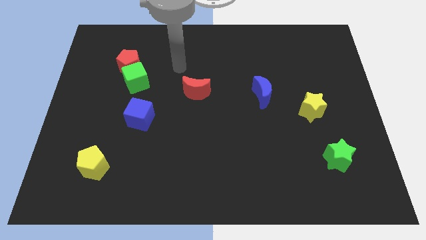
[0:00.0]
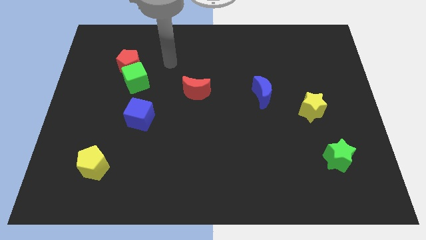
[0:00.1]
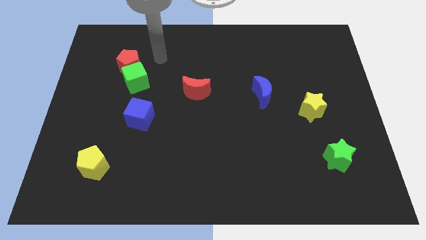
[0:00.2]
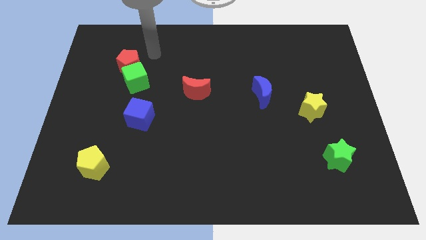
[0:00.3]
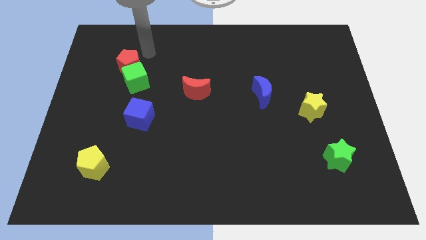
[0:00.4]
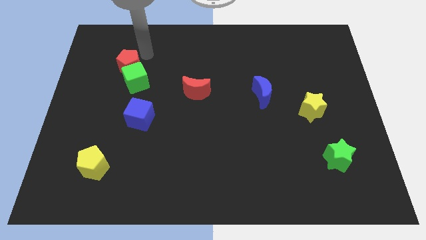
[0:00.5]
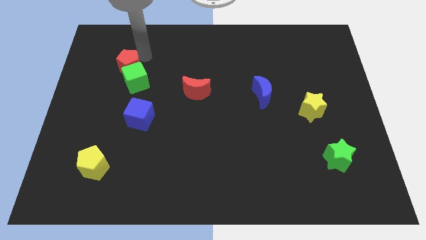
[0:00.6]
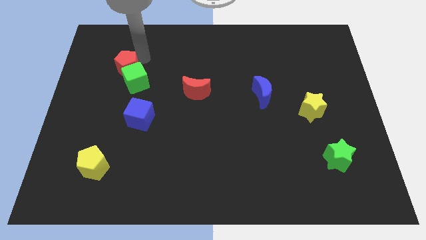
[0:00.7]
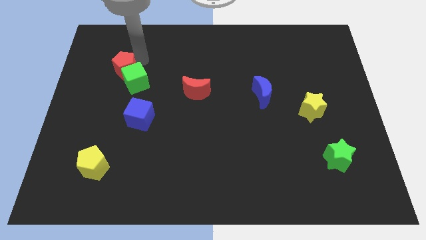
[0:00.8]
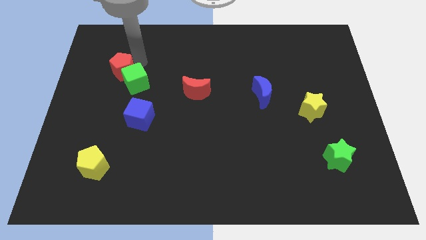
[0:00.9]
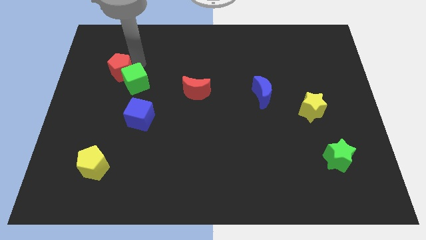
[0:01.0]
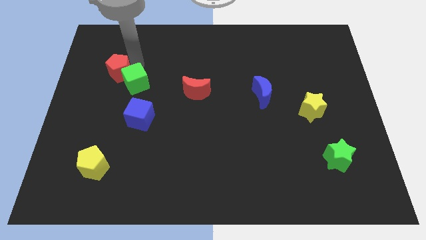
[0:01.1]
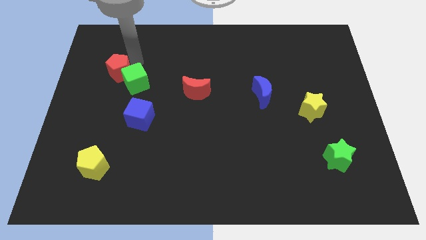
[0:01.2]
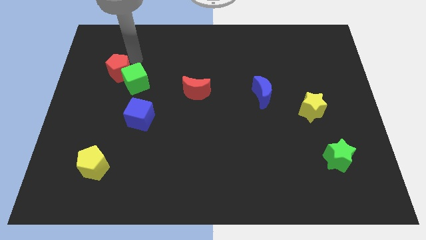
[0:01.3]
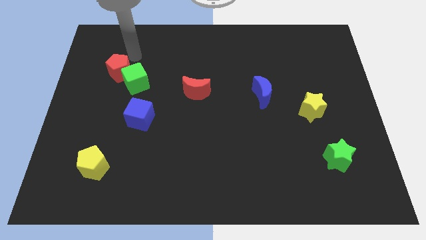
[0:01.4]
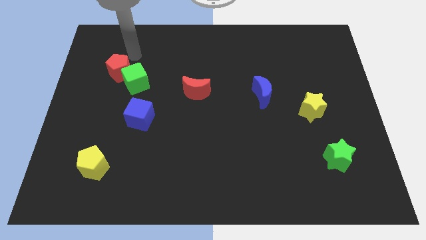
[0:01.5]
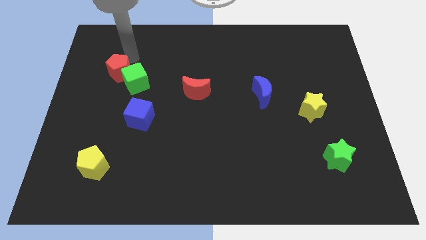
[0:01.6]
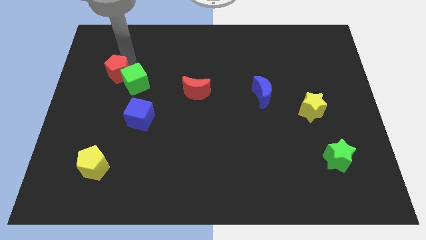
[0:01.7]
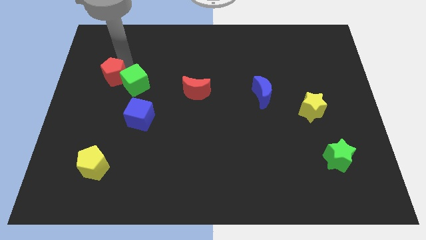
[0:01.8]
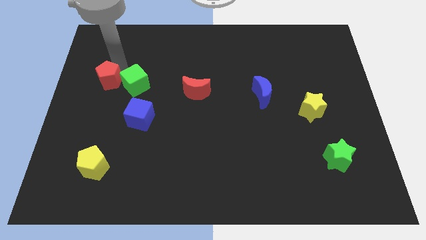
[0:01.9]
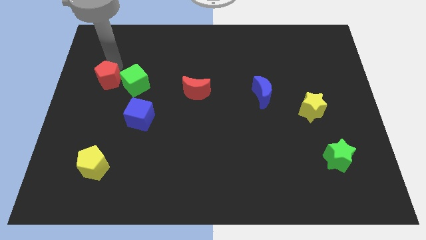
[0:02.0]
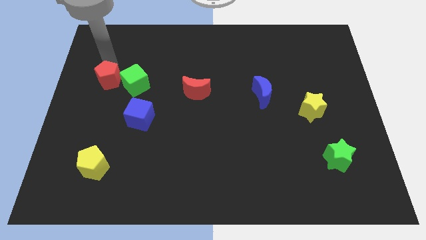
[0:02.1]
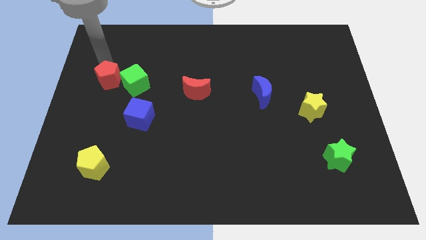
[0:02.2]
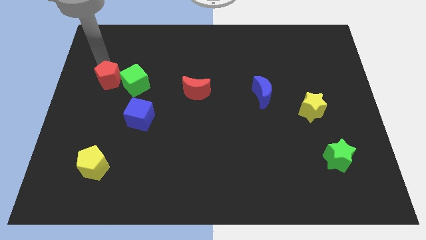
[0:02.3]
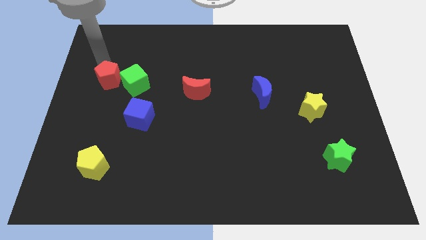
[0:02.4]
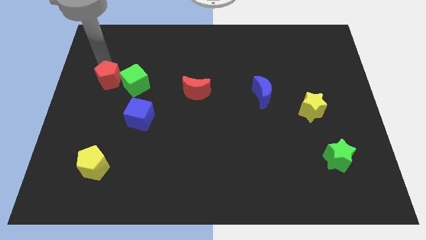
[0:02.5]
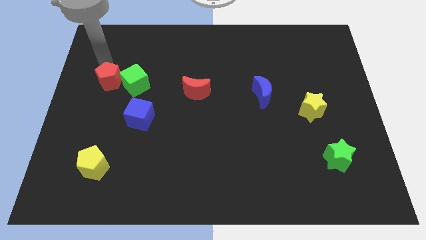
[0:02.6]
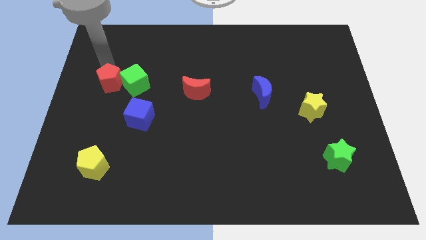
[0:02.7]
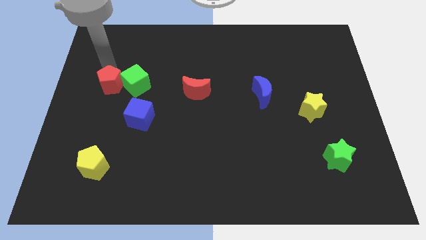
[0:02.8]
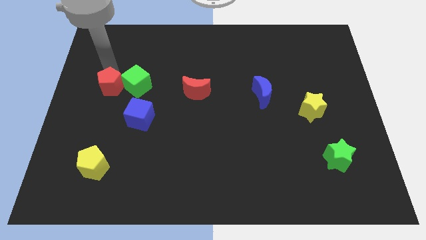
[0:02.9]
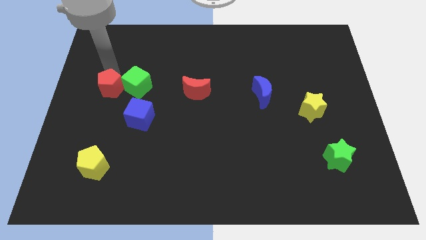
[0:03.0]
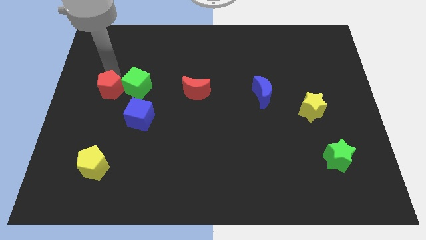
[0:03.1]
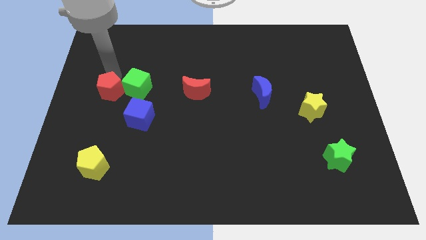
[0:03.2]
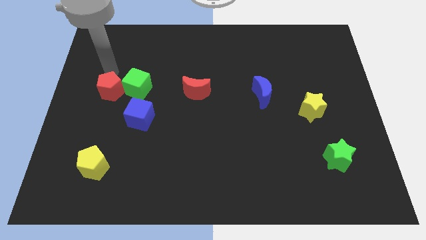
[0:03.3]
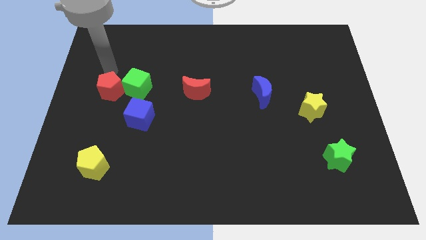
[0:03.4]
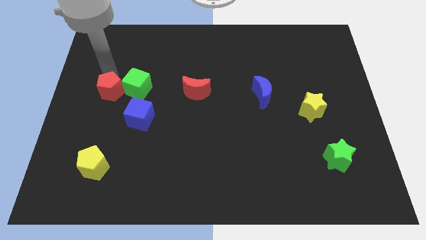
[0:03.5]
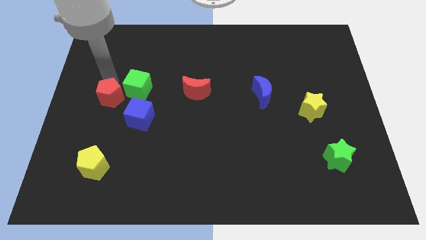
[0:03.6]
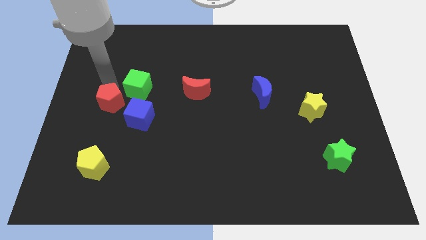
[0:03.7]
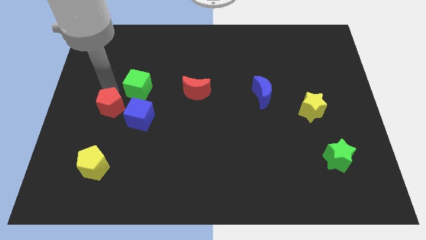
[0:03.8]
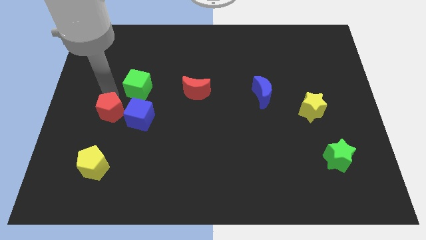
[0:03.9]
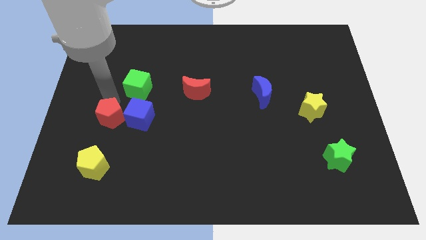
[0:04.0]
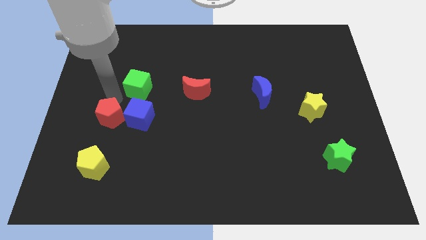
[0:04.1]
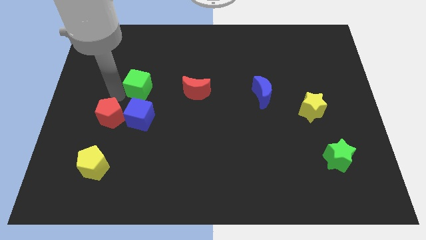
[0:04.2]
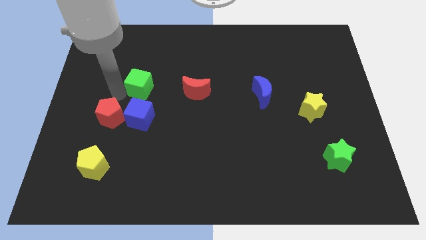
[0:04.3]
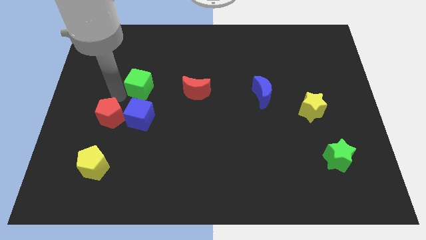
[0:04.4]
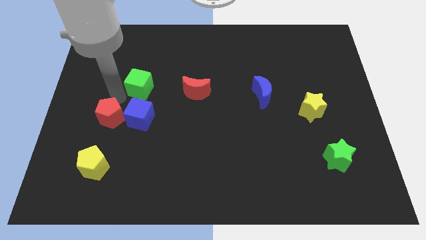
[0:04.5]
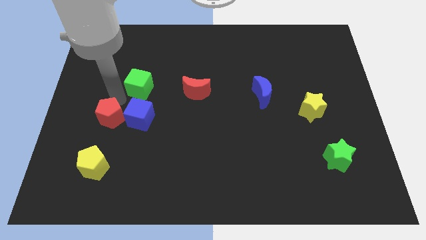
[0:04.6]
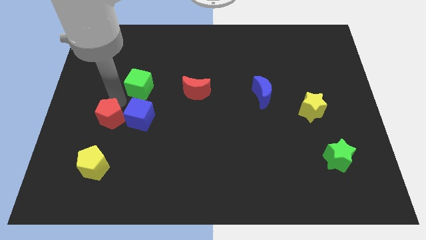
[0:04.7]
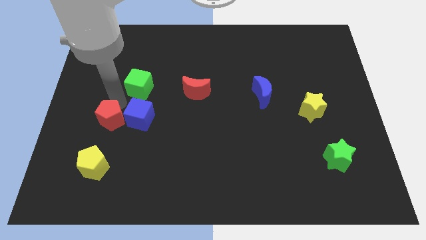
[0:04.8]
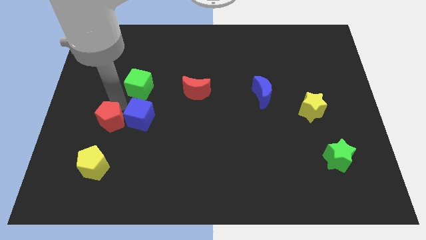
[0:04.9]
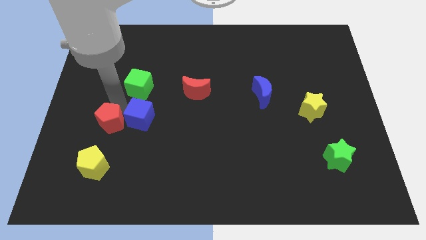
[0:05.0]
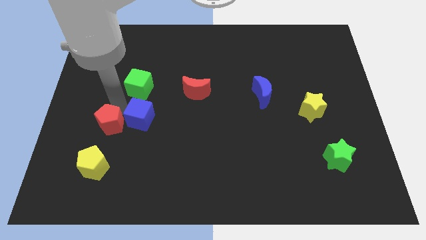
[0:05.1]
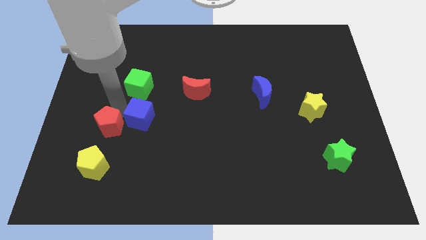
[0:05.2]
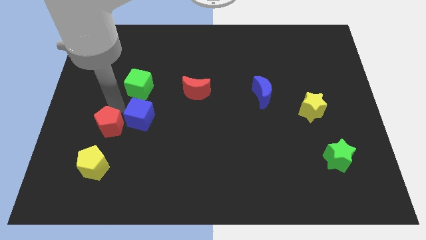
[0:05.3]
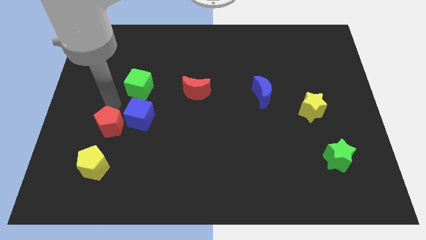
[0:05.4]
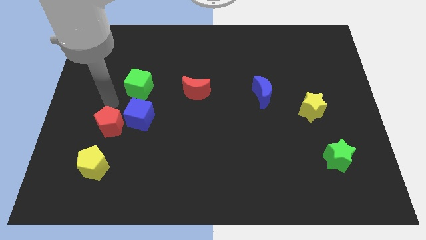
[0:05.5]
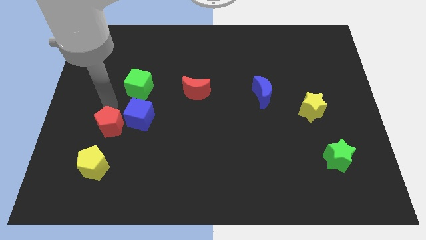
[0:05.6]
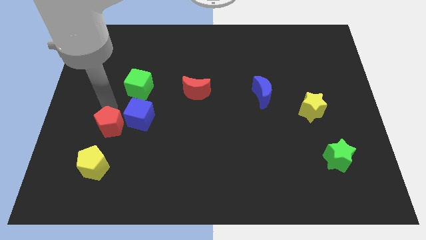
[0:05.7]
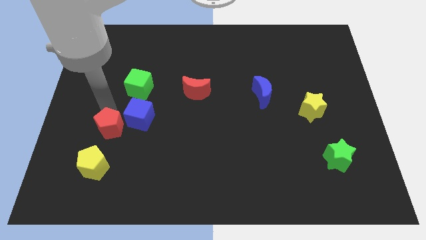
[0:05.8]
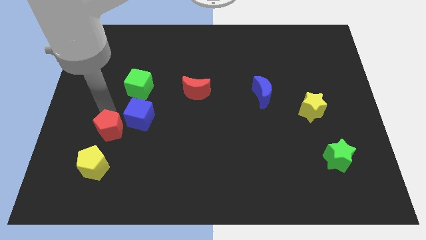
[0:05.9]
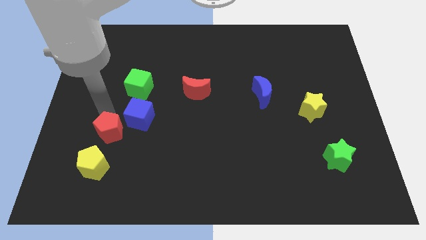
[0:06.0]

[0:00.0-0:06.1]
move the red pentagon downwards

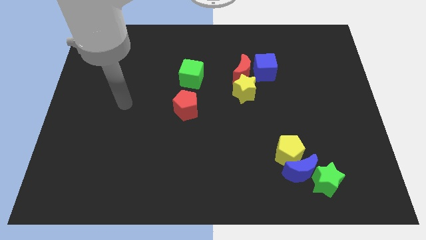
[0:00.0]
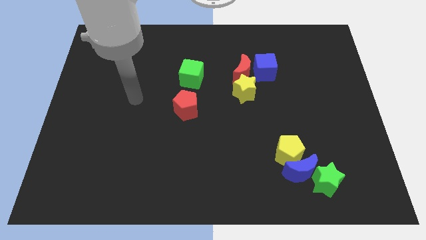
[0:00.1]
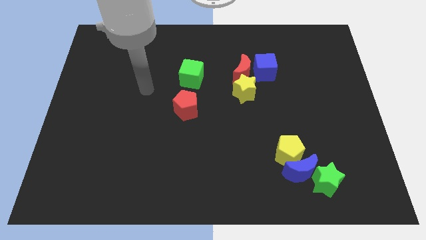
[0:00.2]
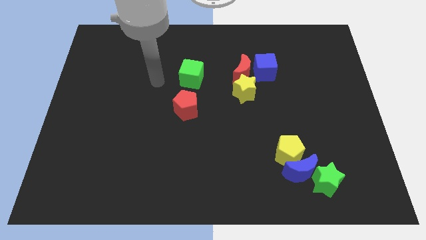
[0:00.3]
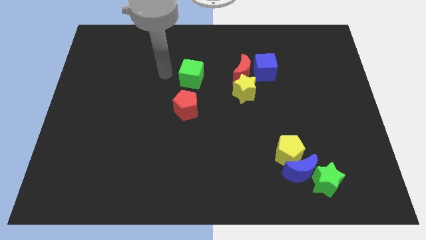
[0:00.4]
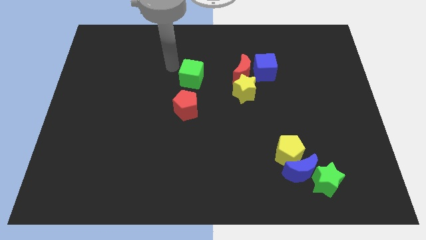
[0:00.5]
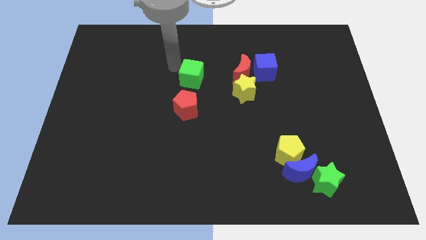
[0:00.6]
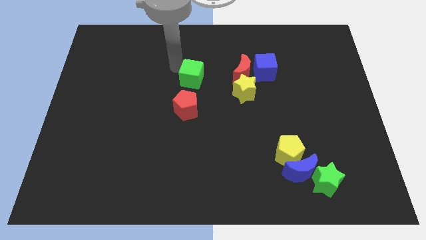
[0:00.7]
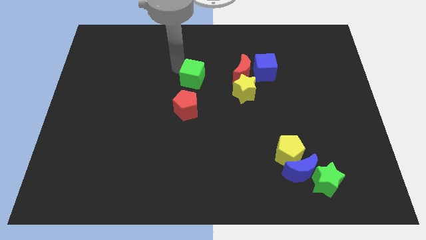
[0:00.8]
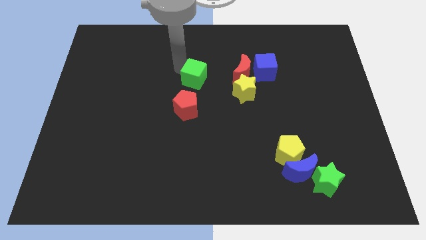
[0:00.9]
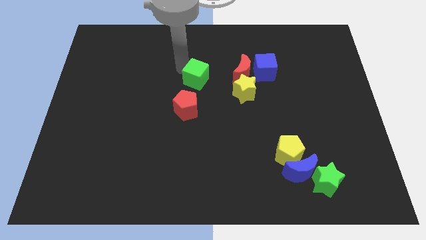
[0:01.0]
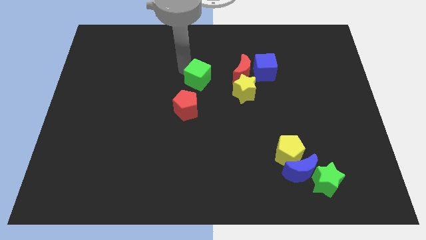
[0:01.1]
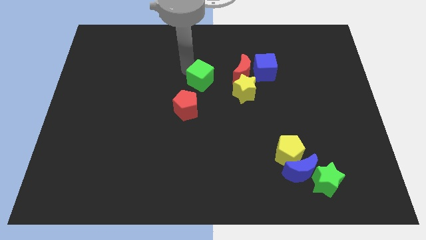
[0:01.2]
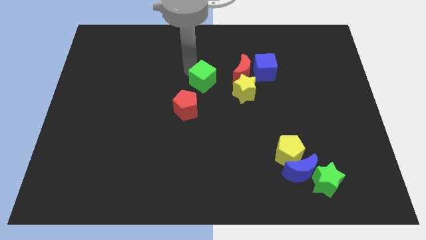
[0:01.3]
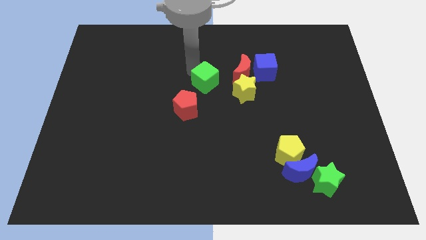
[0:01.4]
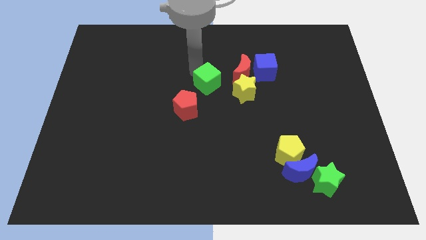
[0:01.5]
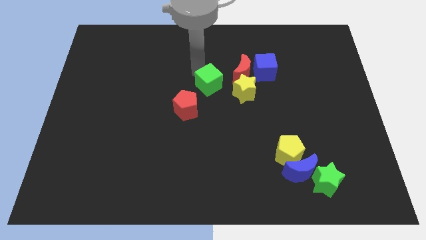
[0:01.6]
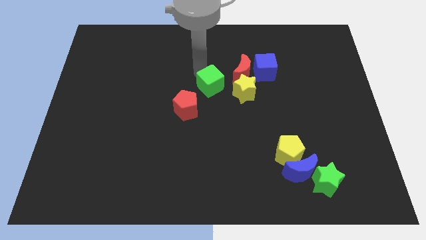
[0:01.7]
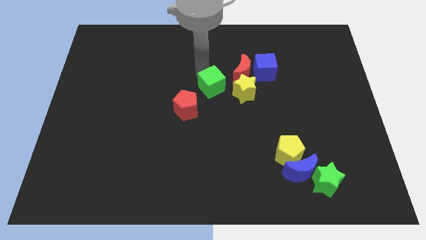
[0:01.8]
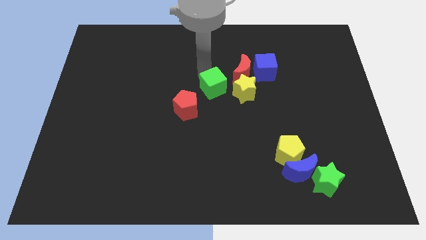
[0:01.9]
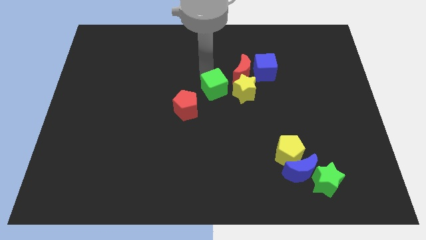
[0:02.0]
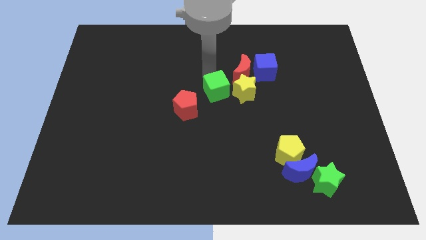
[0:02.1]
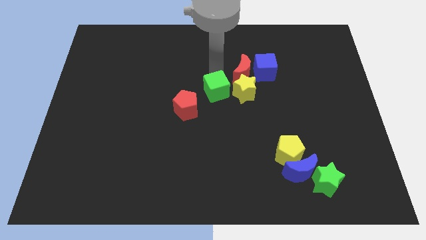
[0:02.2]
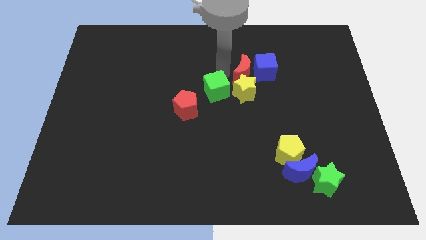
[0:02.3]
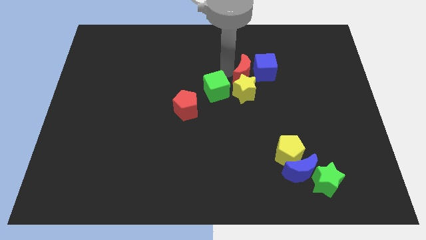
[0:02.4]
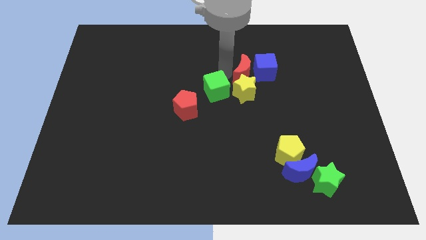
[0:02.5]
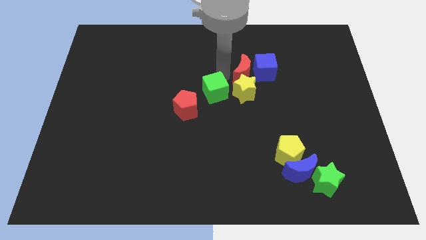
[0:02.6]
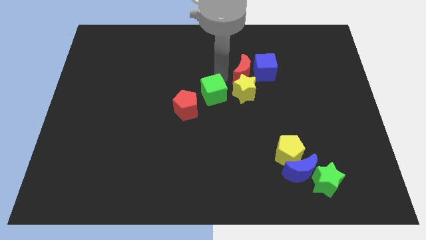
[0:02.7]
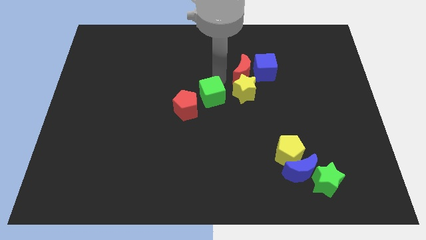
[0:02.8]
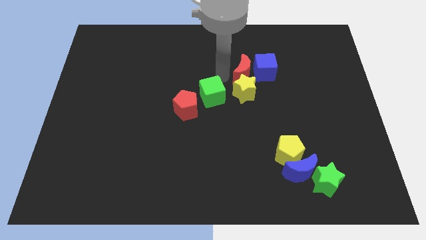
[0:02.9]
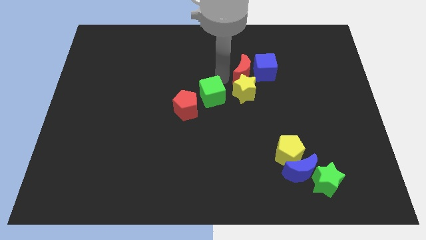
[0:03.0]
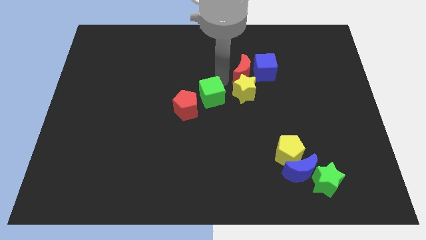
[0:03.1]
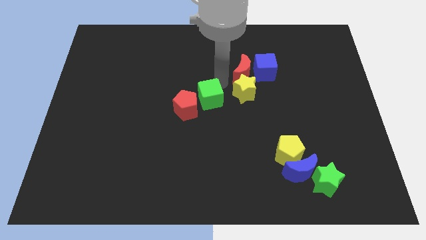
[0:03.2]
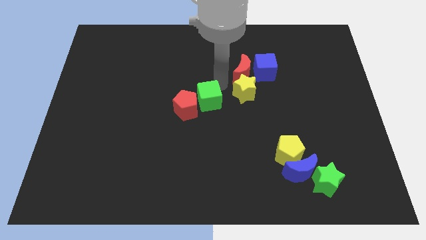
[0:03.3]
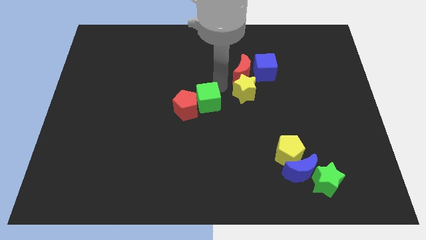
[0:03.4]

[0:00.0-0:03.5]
push the green cube down slightly
